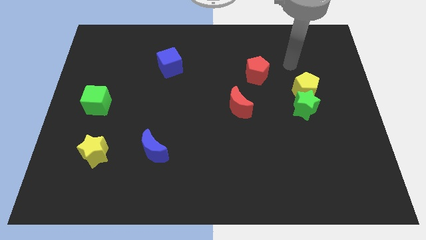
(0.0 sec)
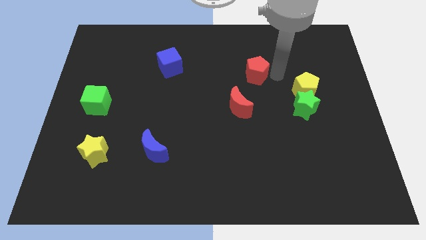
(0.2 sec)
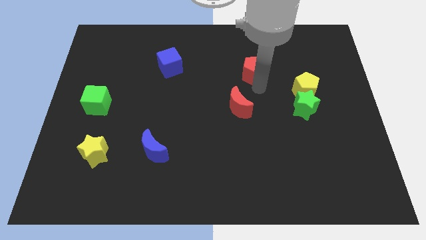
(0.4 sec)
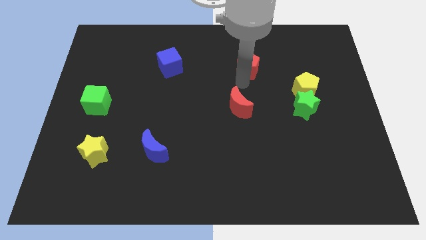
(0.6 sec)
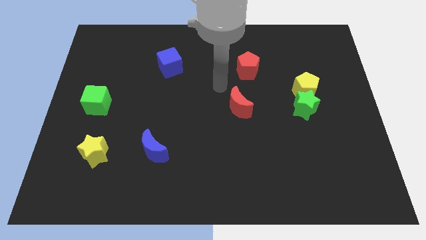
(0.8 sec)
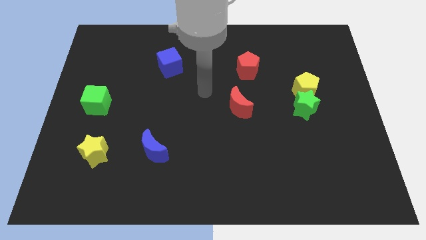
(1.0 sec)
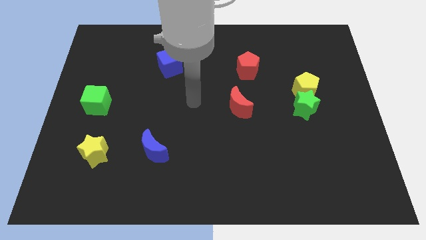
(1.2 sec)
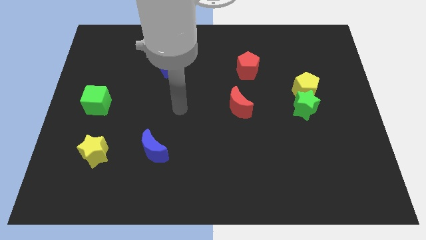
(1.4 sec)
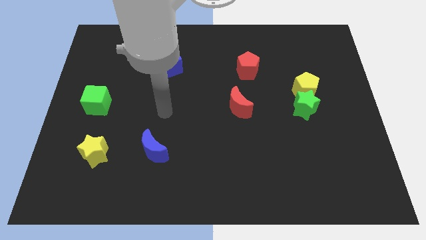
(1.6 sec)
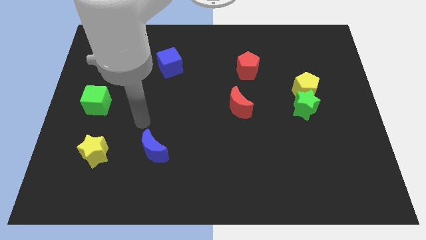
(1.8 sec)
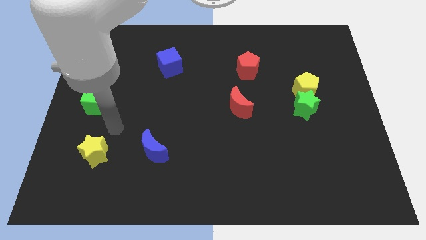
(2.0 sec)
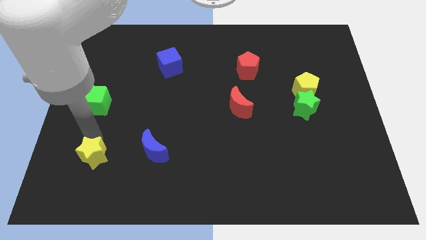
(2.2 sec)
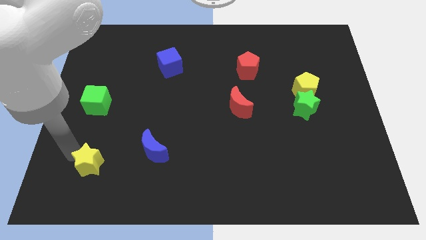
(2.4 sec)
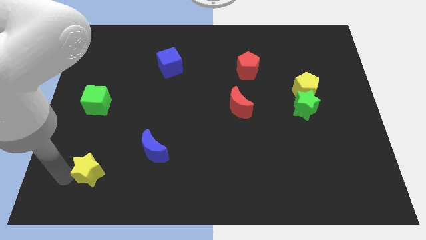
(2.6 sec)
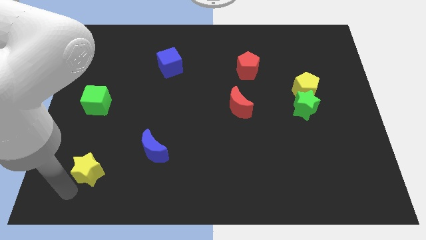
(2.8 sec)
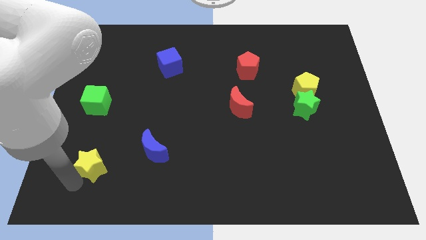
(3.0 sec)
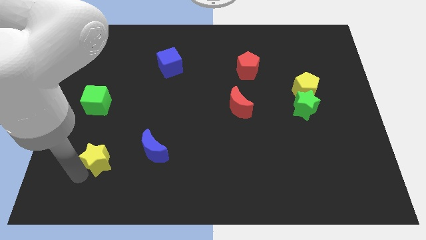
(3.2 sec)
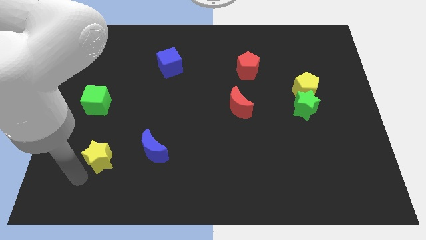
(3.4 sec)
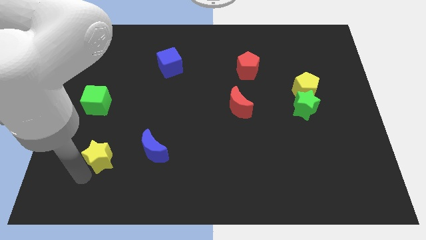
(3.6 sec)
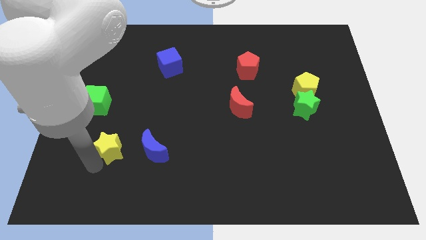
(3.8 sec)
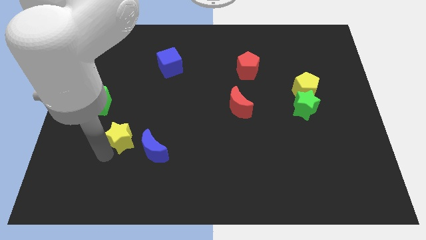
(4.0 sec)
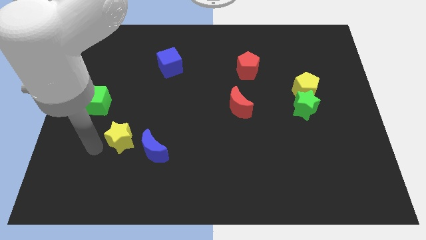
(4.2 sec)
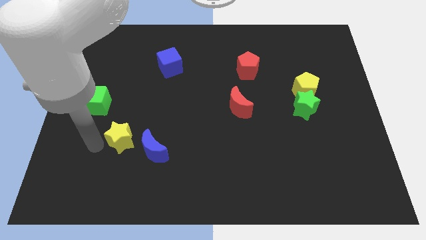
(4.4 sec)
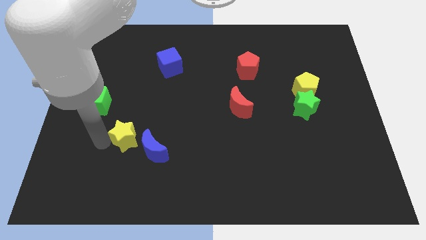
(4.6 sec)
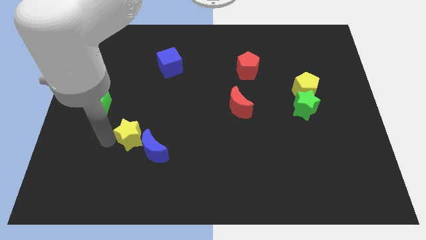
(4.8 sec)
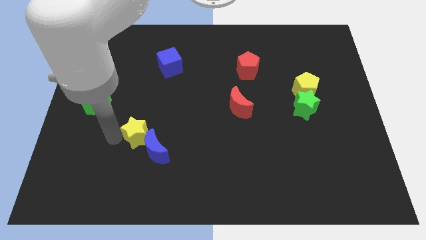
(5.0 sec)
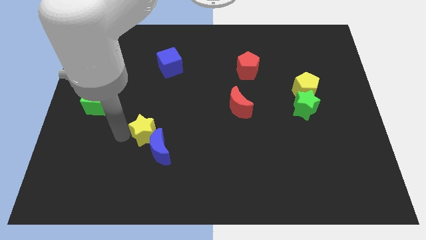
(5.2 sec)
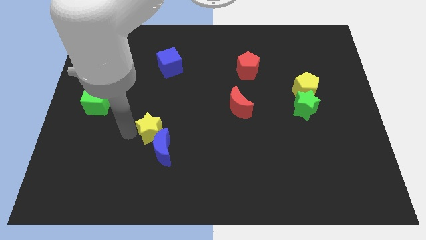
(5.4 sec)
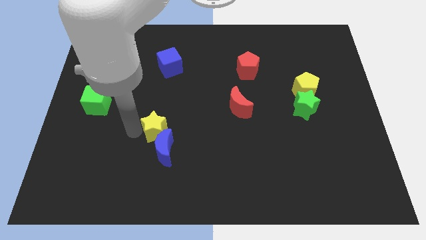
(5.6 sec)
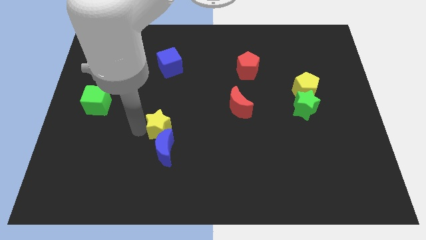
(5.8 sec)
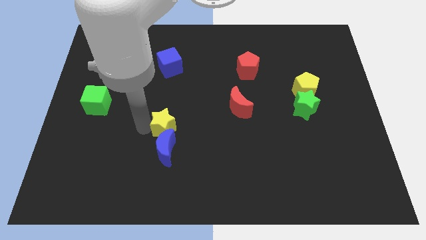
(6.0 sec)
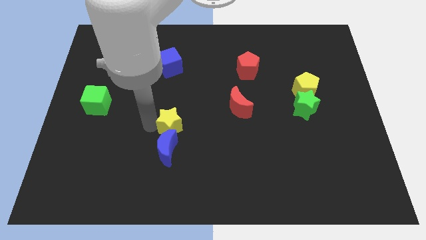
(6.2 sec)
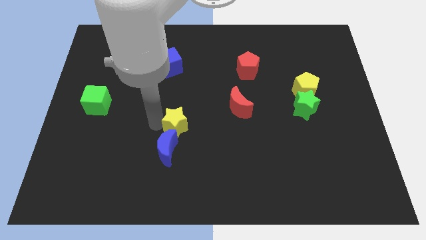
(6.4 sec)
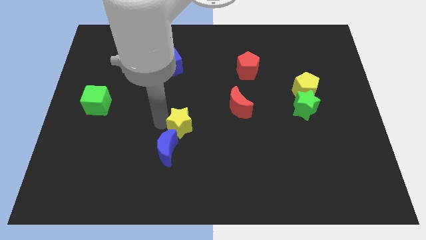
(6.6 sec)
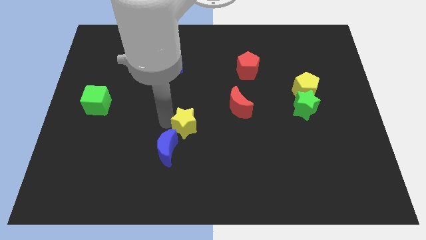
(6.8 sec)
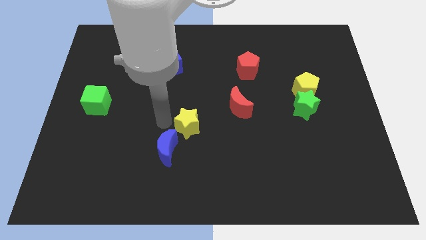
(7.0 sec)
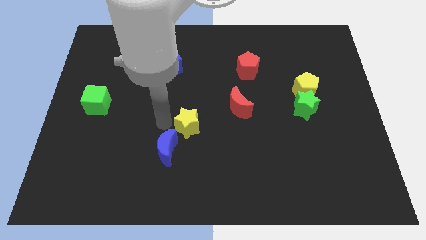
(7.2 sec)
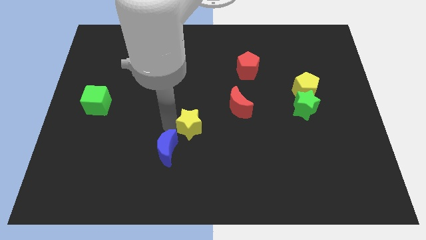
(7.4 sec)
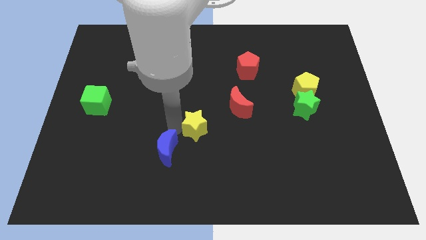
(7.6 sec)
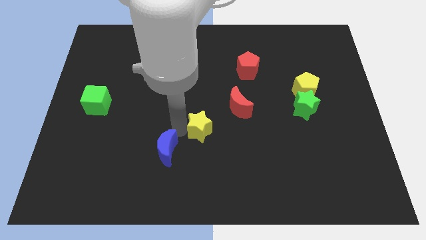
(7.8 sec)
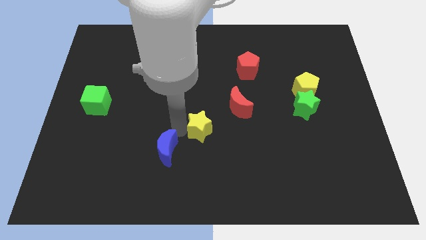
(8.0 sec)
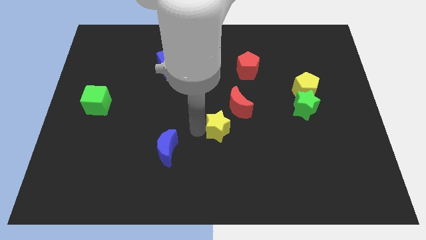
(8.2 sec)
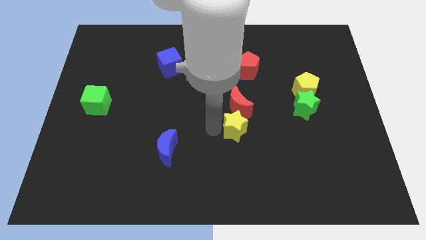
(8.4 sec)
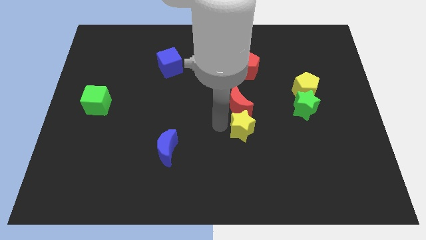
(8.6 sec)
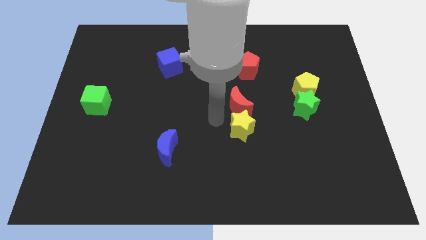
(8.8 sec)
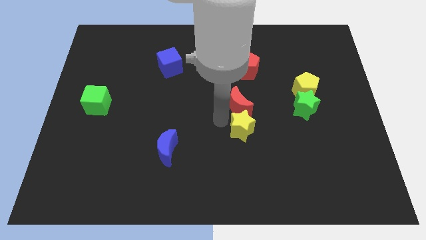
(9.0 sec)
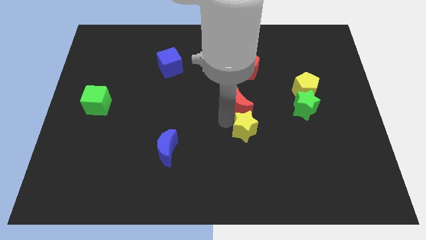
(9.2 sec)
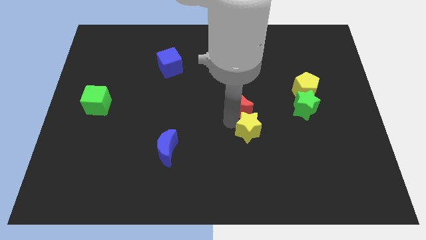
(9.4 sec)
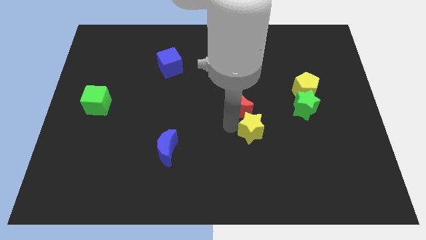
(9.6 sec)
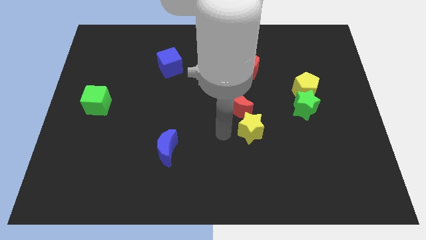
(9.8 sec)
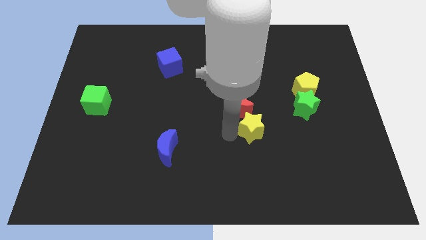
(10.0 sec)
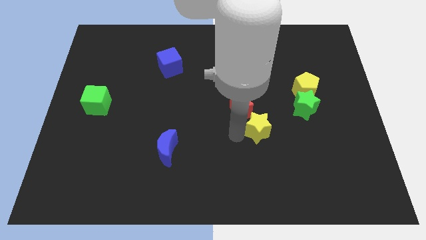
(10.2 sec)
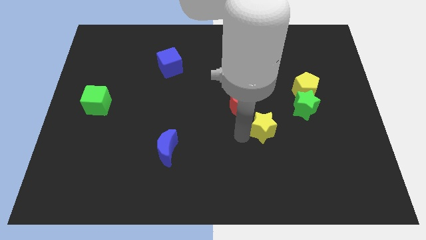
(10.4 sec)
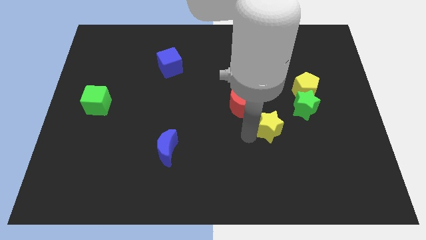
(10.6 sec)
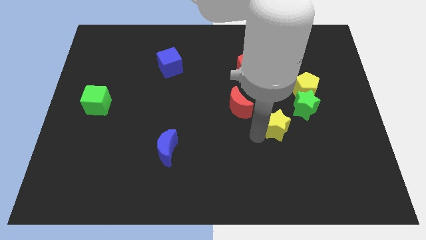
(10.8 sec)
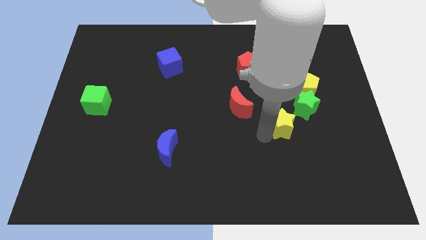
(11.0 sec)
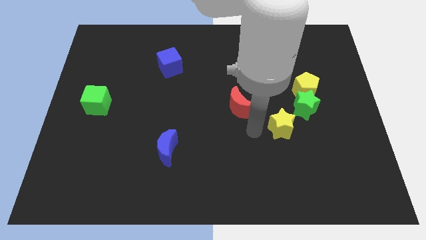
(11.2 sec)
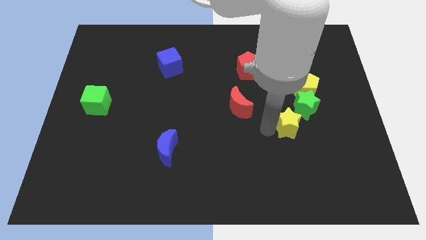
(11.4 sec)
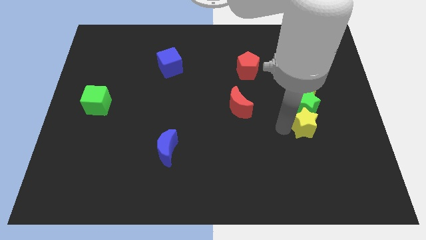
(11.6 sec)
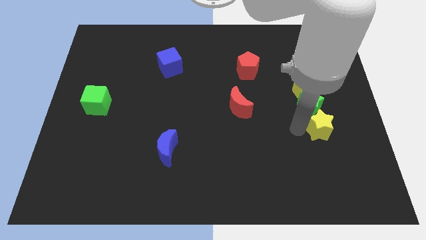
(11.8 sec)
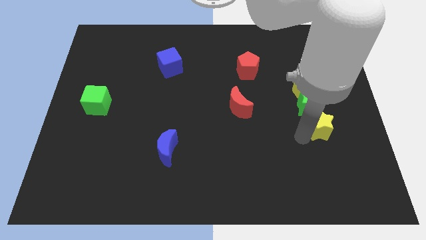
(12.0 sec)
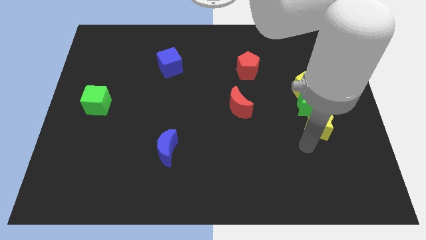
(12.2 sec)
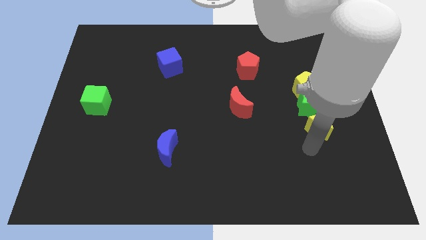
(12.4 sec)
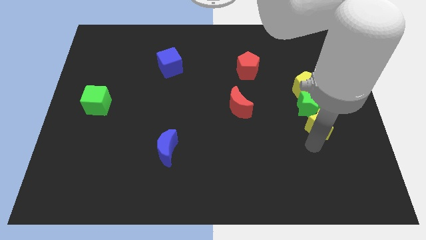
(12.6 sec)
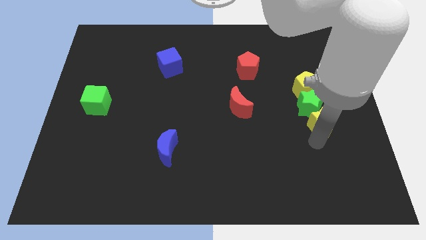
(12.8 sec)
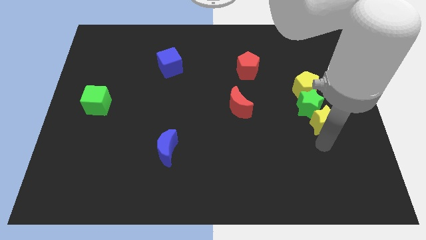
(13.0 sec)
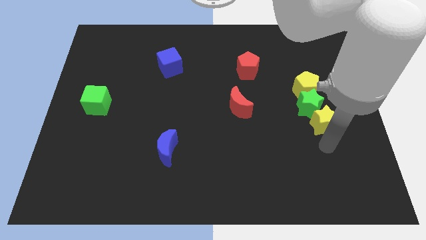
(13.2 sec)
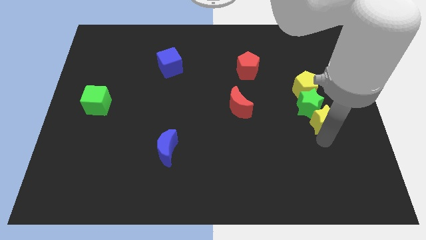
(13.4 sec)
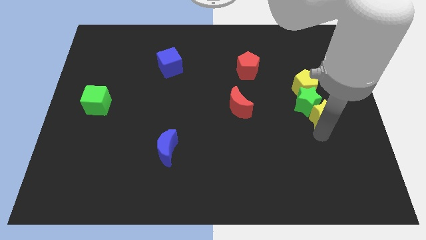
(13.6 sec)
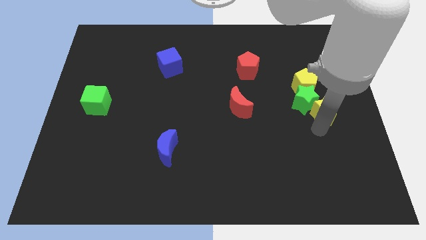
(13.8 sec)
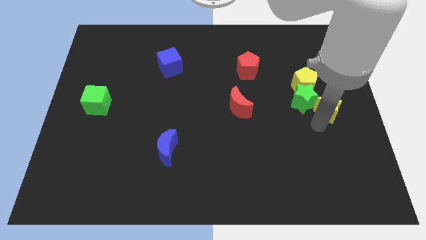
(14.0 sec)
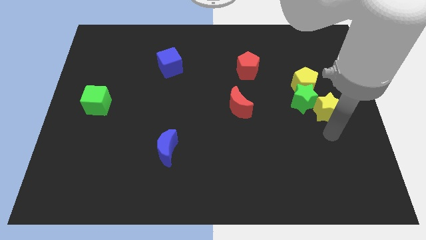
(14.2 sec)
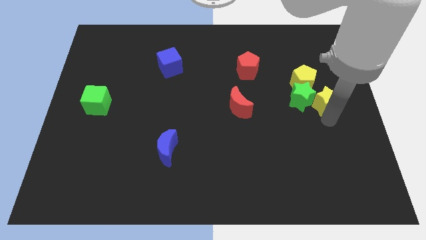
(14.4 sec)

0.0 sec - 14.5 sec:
put the yellow star to the top right side of the green star

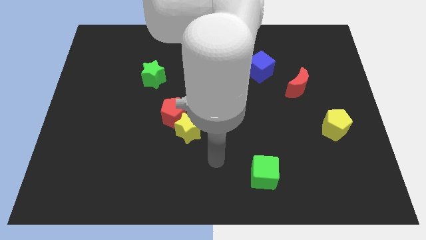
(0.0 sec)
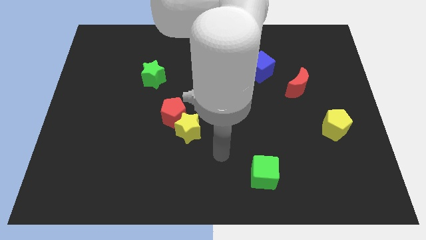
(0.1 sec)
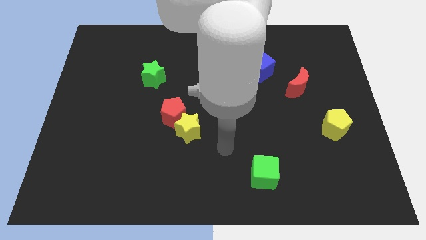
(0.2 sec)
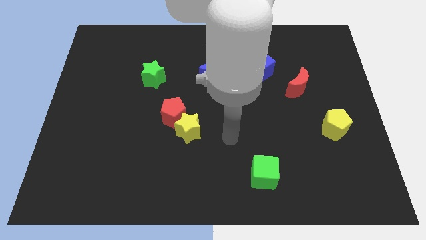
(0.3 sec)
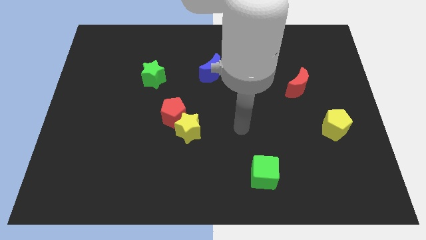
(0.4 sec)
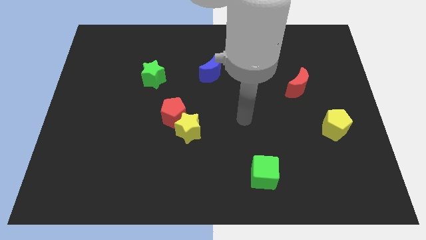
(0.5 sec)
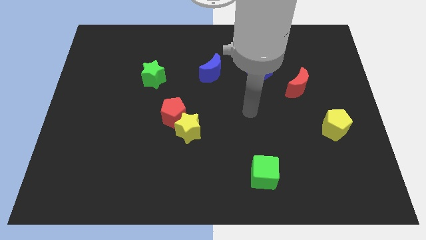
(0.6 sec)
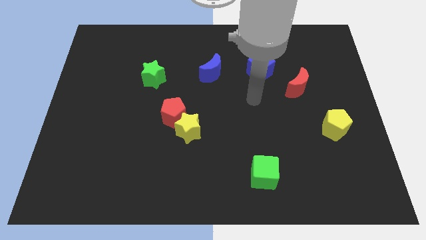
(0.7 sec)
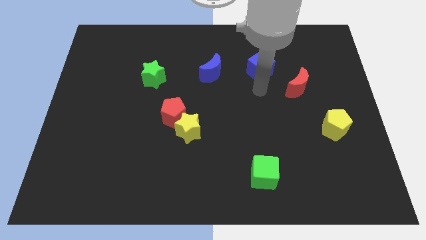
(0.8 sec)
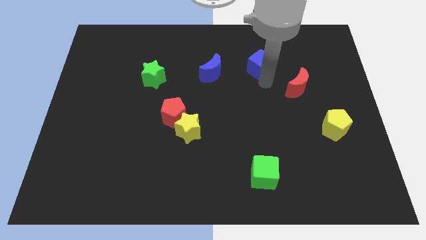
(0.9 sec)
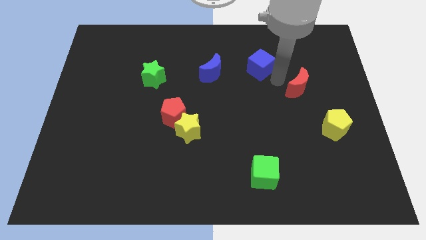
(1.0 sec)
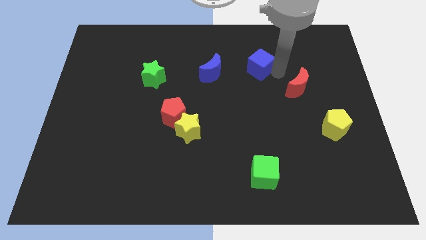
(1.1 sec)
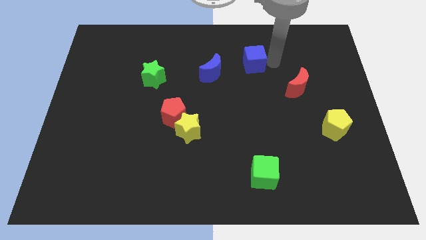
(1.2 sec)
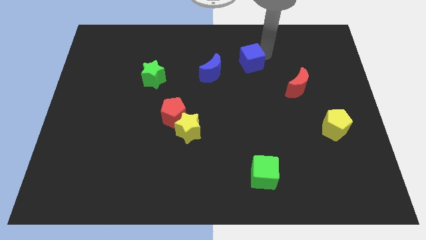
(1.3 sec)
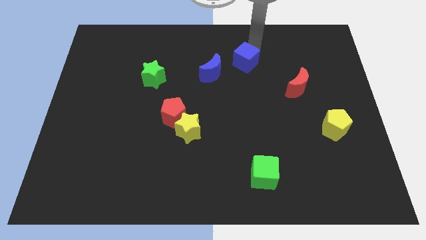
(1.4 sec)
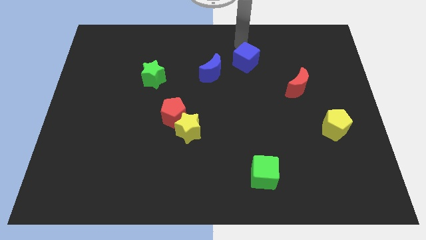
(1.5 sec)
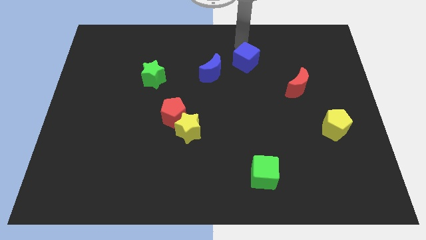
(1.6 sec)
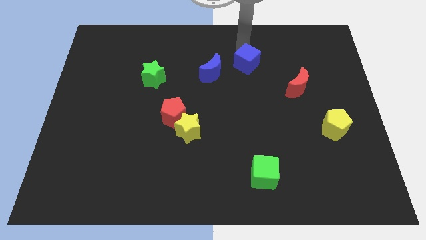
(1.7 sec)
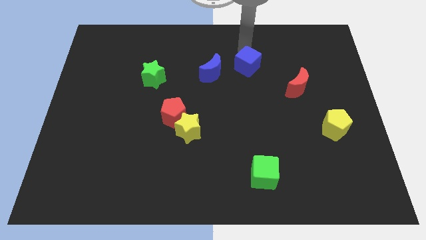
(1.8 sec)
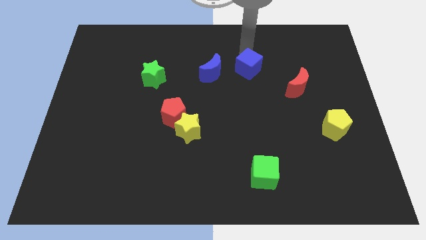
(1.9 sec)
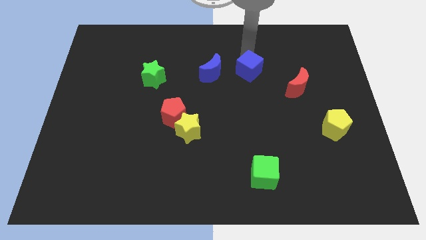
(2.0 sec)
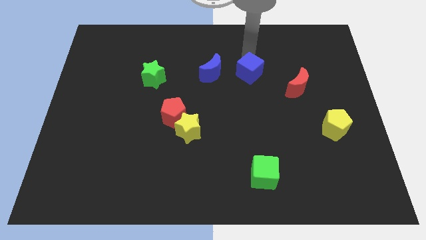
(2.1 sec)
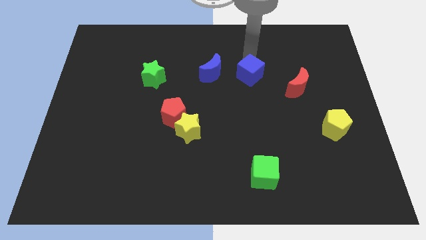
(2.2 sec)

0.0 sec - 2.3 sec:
slide the blue cube to the left side of the red moon
